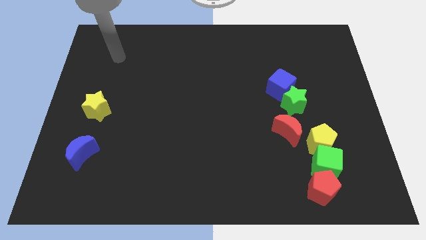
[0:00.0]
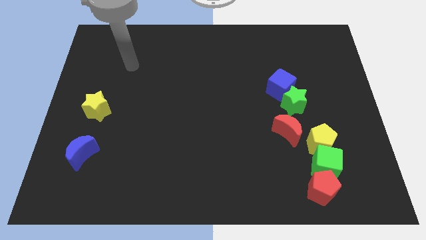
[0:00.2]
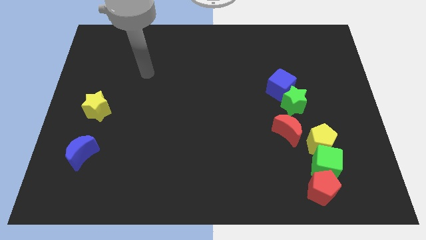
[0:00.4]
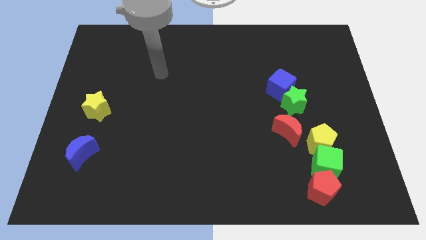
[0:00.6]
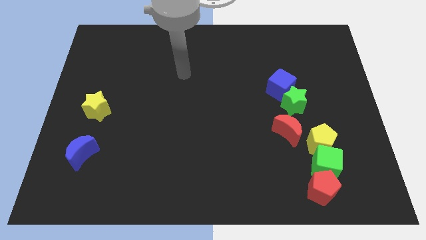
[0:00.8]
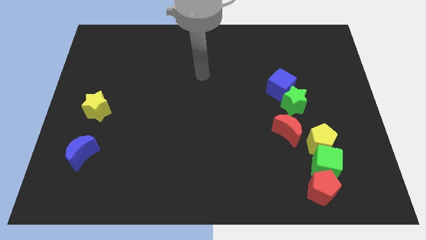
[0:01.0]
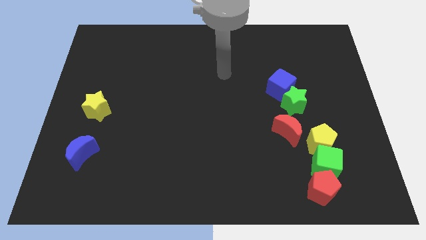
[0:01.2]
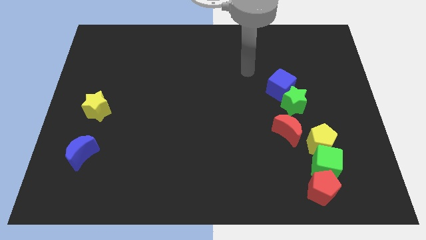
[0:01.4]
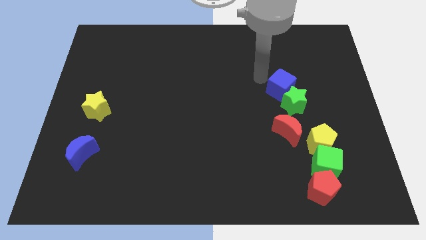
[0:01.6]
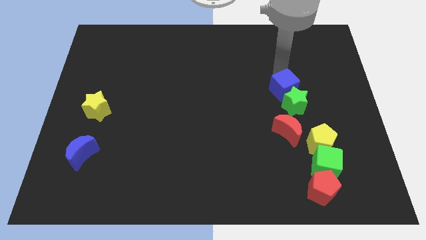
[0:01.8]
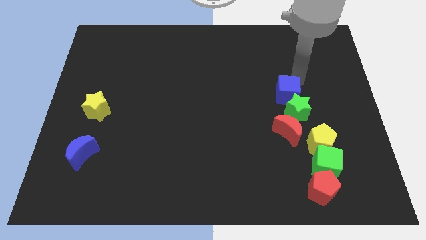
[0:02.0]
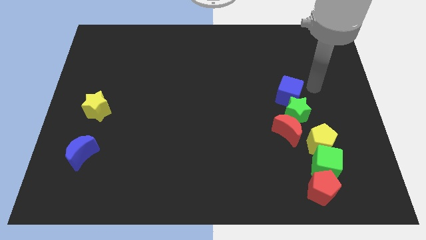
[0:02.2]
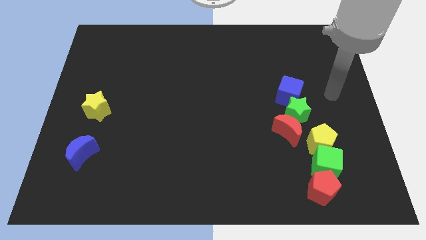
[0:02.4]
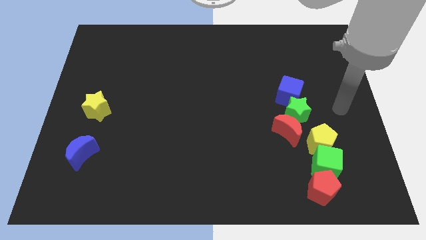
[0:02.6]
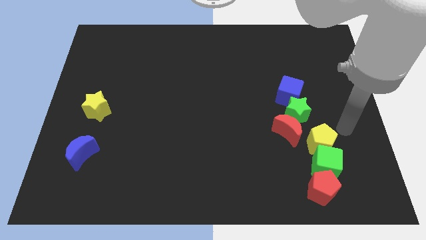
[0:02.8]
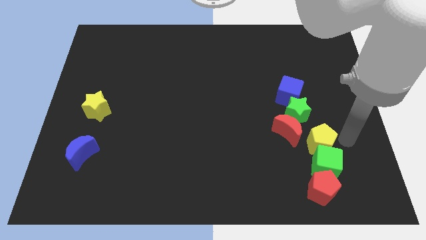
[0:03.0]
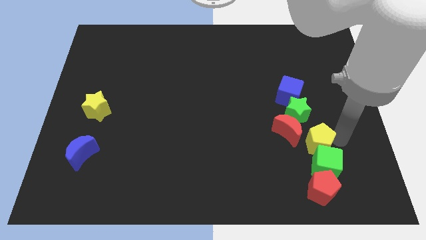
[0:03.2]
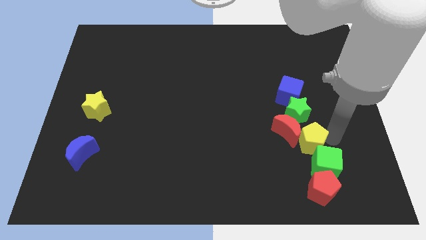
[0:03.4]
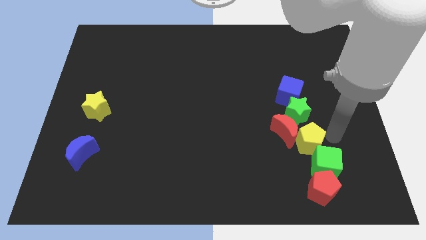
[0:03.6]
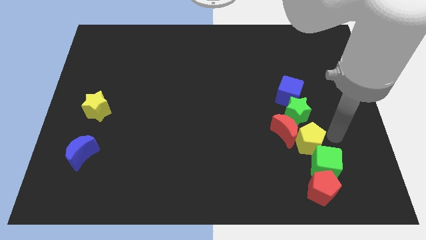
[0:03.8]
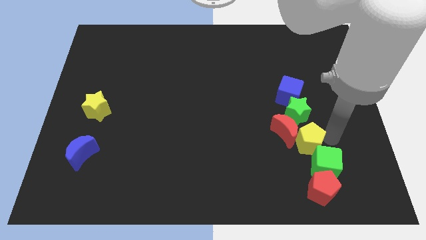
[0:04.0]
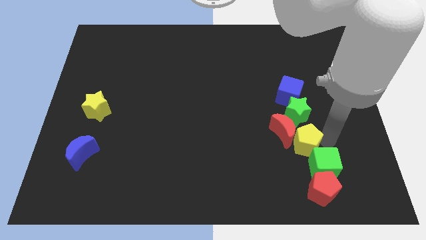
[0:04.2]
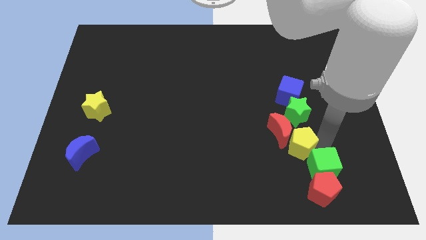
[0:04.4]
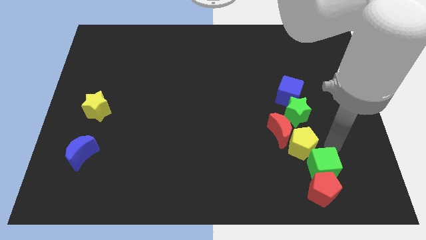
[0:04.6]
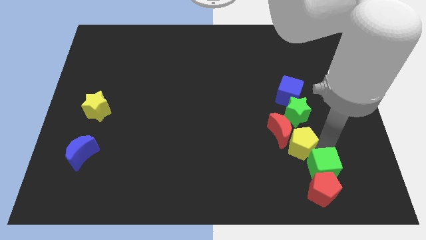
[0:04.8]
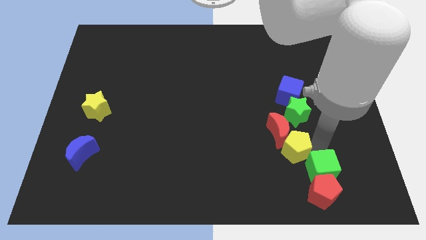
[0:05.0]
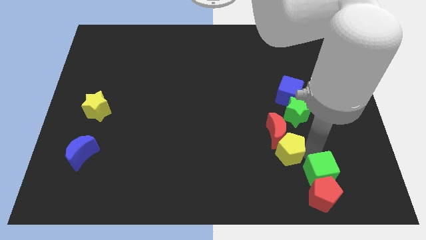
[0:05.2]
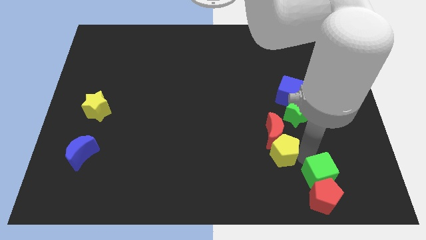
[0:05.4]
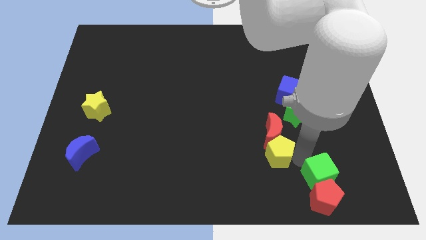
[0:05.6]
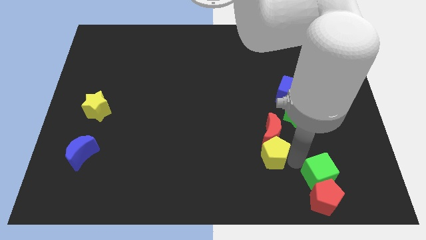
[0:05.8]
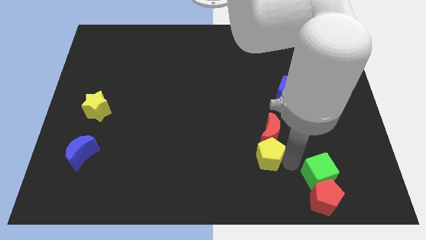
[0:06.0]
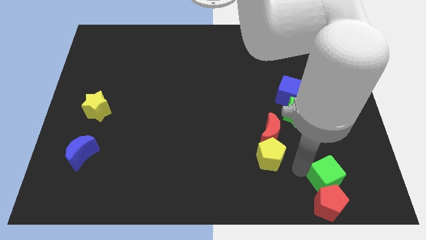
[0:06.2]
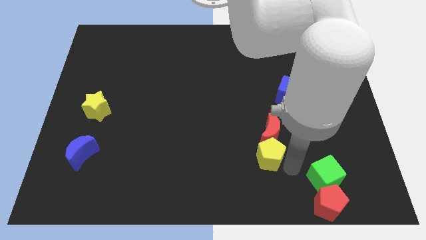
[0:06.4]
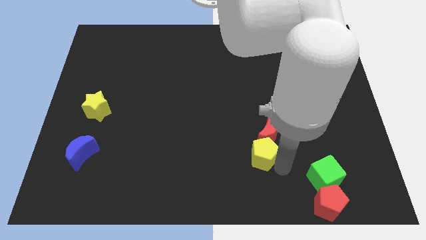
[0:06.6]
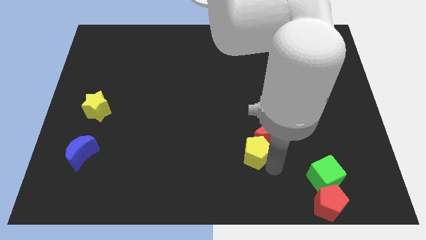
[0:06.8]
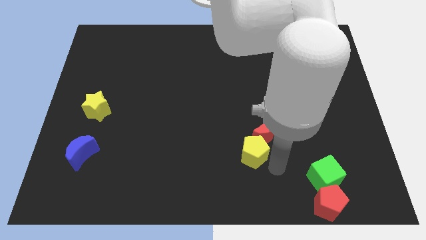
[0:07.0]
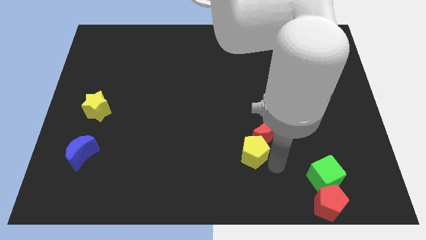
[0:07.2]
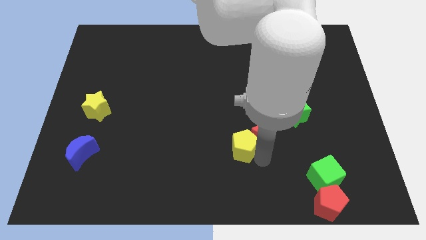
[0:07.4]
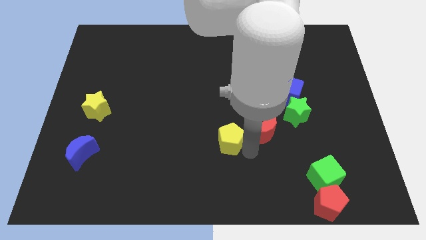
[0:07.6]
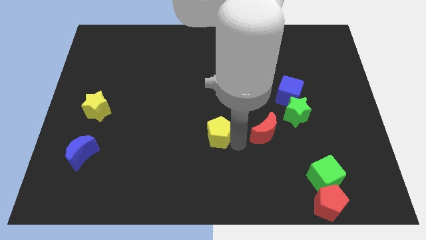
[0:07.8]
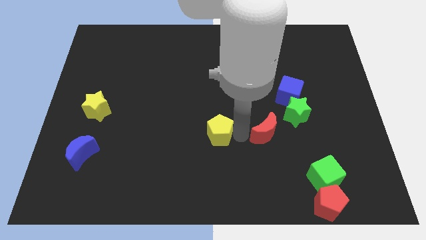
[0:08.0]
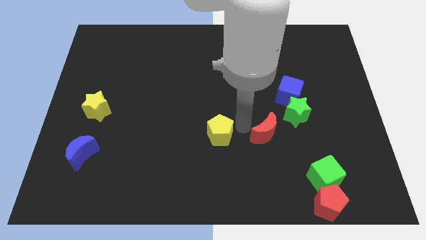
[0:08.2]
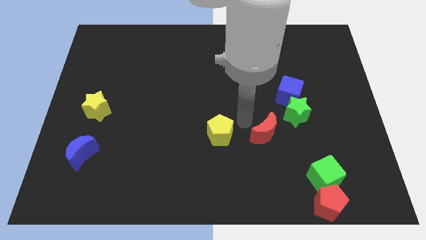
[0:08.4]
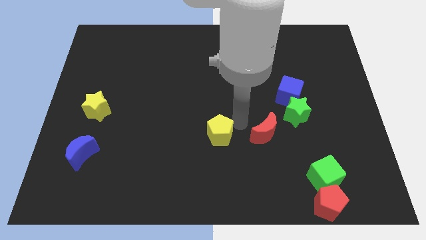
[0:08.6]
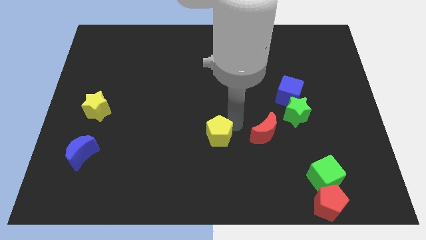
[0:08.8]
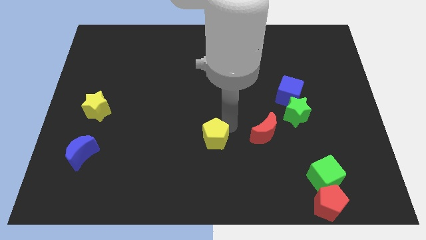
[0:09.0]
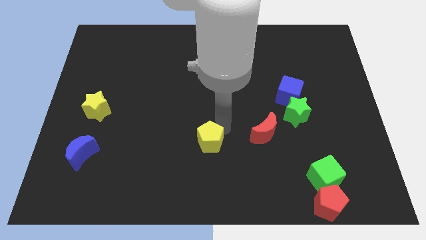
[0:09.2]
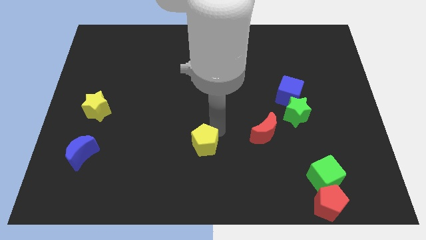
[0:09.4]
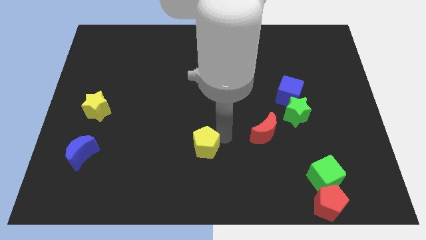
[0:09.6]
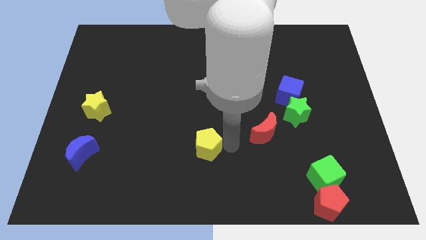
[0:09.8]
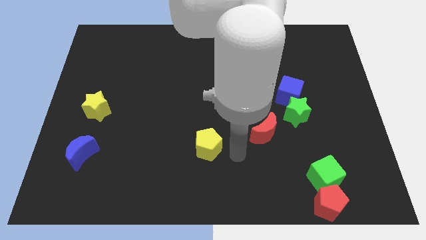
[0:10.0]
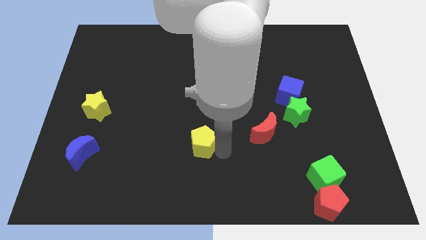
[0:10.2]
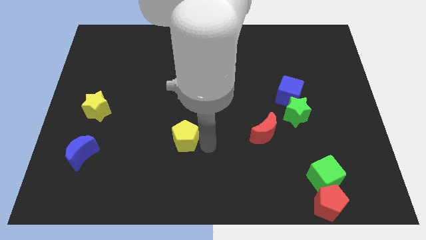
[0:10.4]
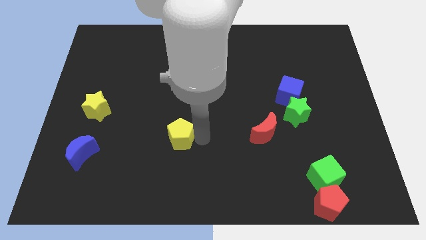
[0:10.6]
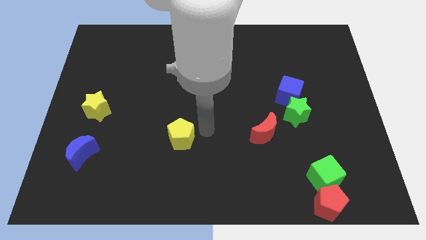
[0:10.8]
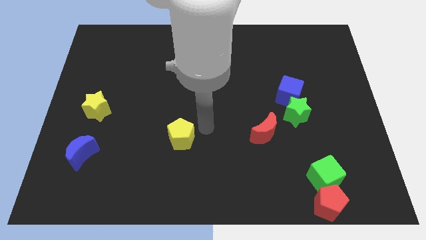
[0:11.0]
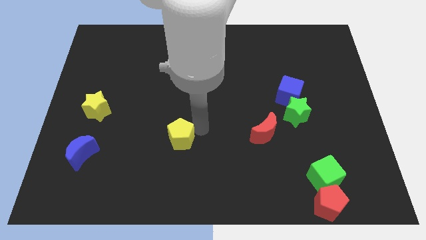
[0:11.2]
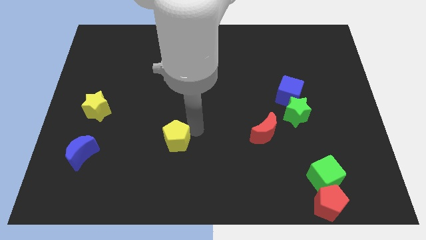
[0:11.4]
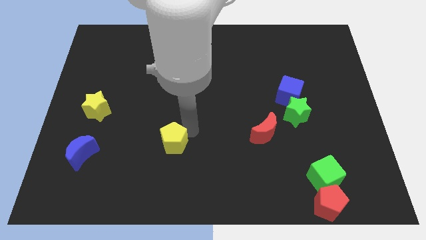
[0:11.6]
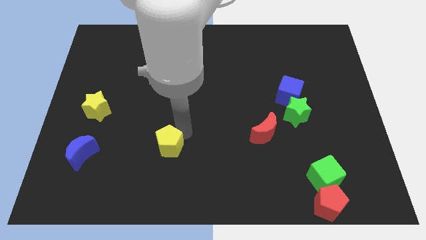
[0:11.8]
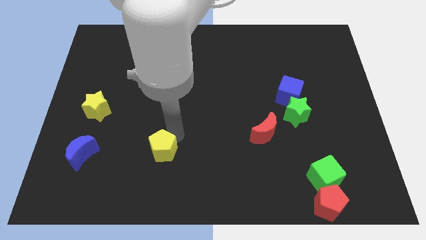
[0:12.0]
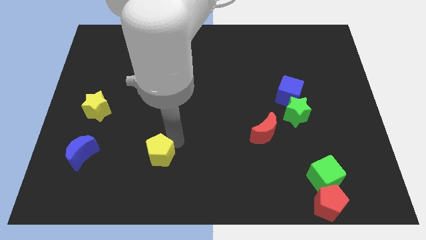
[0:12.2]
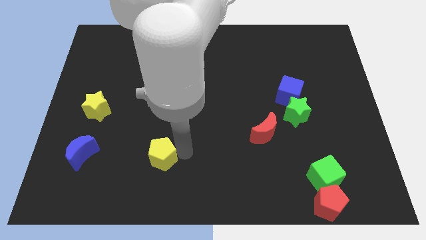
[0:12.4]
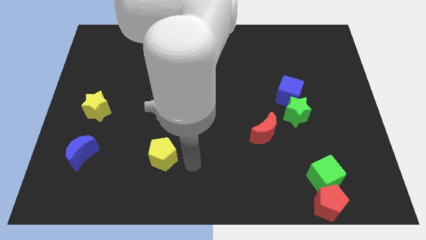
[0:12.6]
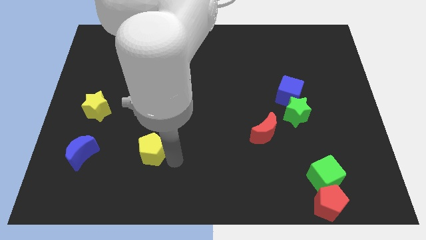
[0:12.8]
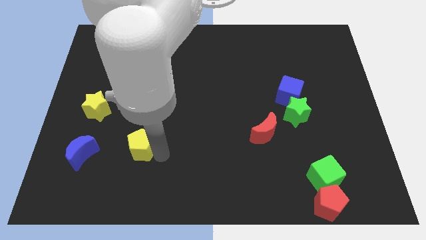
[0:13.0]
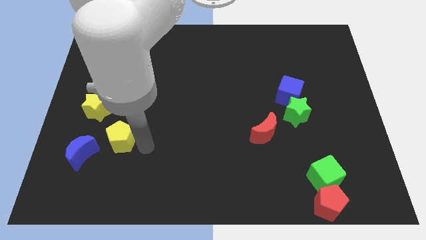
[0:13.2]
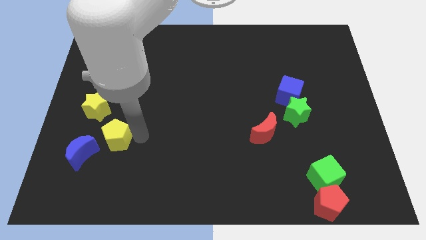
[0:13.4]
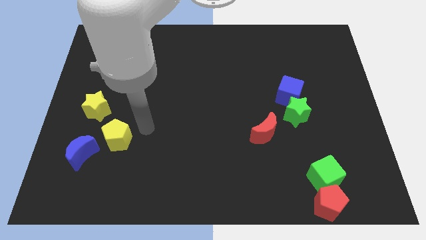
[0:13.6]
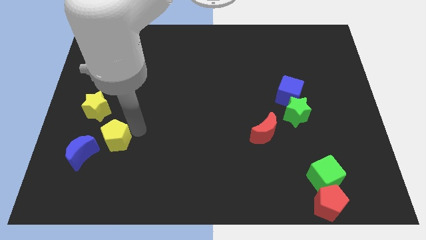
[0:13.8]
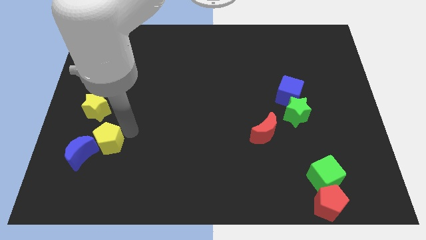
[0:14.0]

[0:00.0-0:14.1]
slide the yellow pentagon towards the blue moon

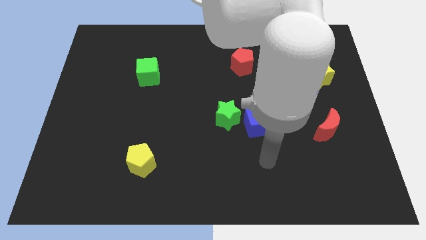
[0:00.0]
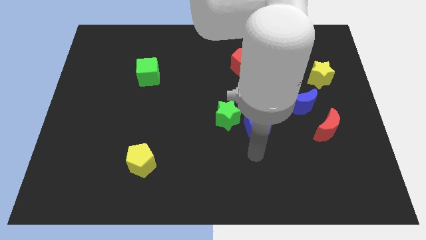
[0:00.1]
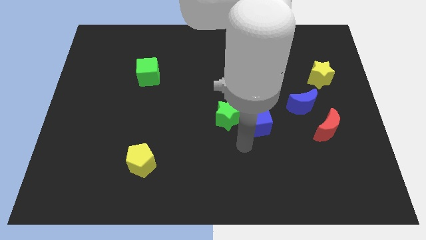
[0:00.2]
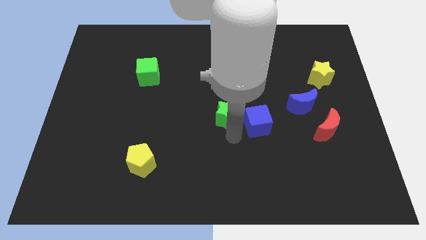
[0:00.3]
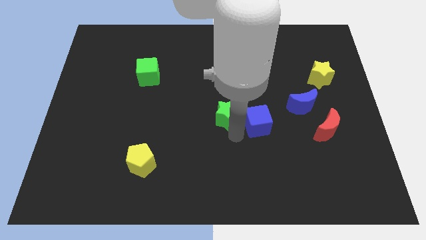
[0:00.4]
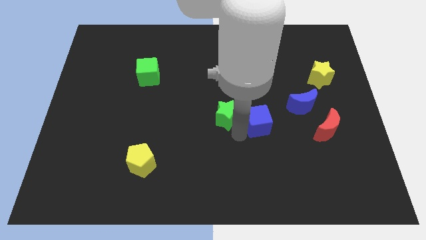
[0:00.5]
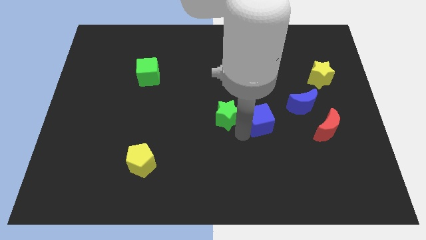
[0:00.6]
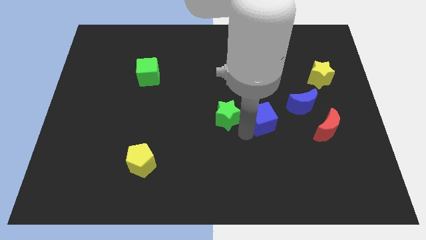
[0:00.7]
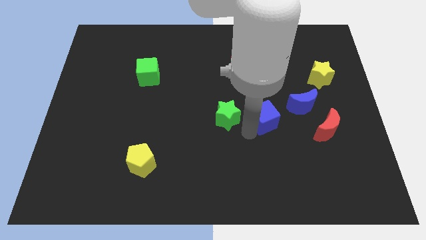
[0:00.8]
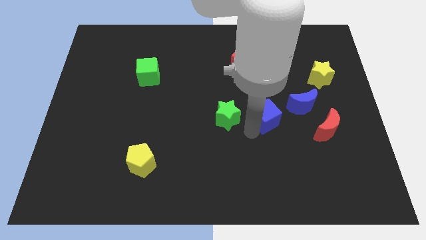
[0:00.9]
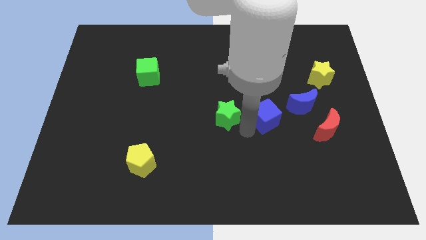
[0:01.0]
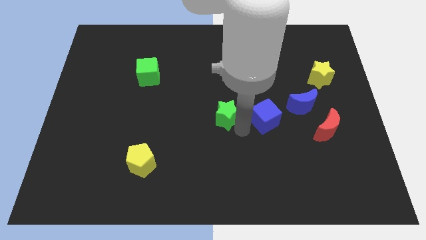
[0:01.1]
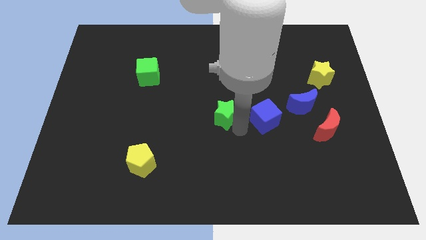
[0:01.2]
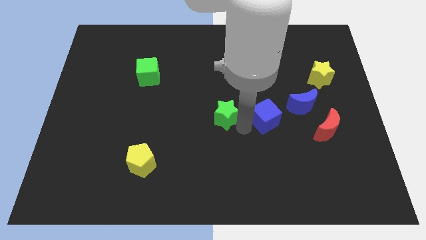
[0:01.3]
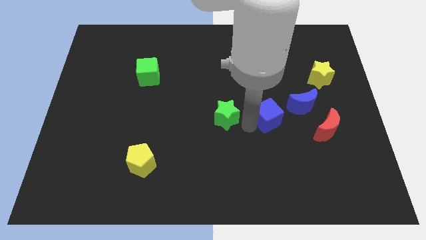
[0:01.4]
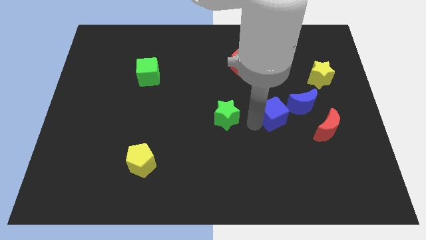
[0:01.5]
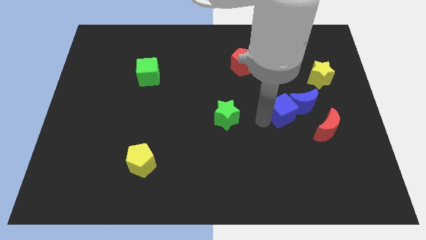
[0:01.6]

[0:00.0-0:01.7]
move the blue cube close to the blue moon
